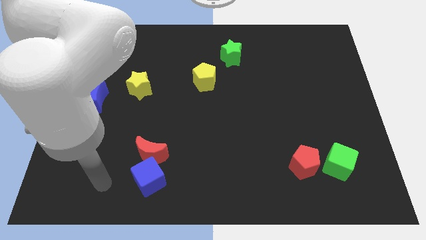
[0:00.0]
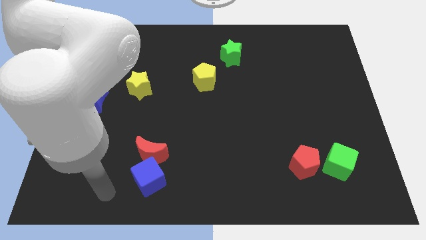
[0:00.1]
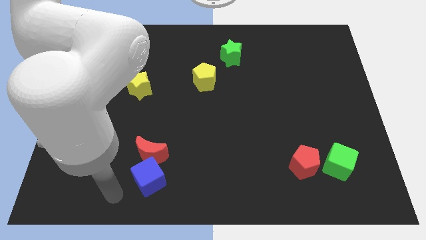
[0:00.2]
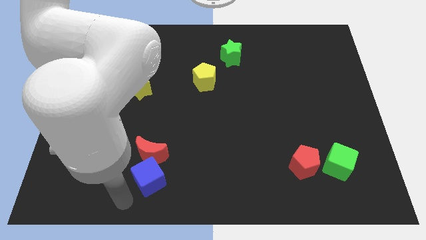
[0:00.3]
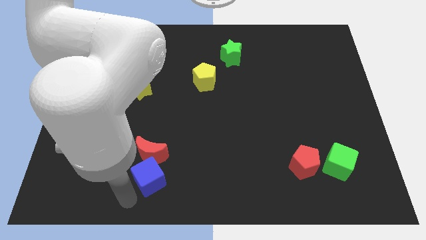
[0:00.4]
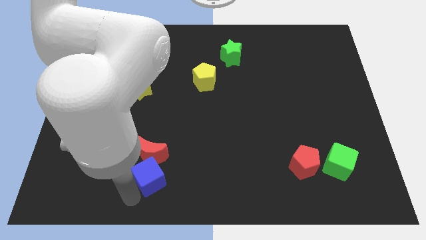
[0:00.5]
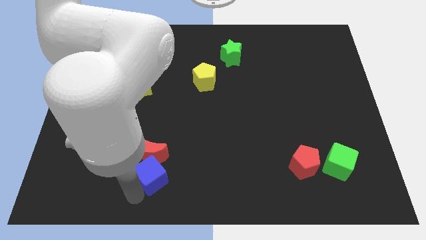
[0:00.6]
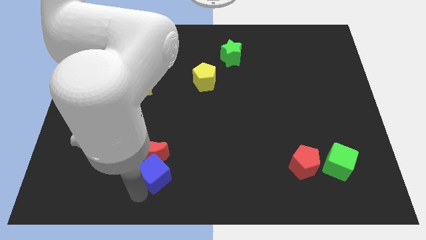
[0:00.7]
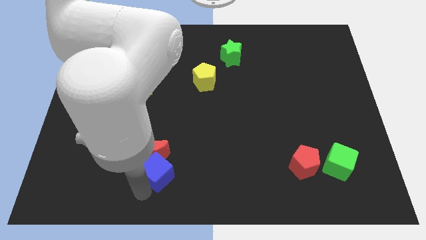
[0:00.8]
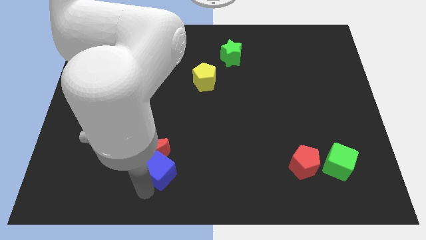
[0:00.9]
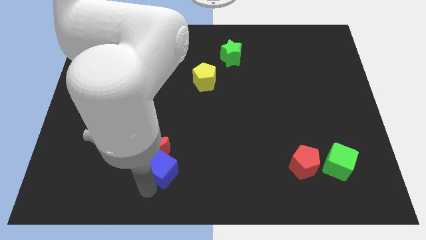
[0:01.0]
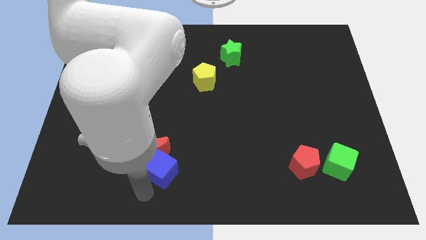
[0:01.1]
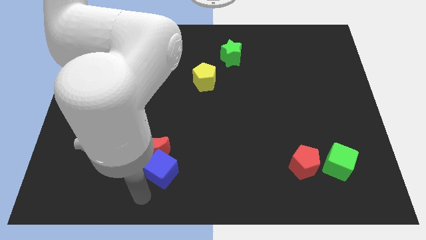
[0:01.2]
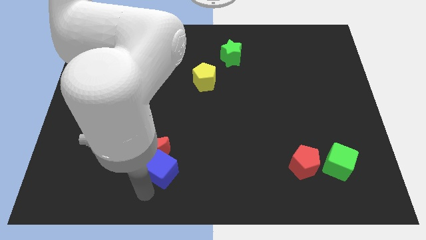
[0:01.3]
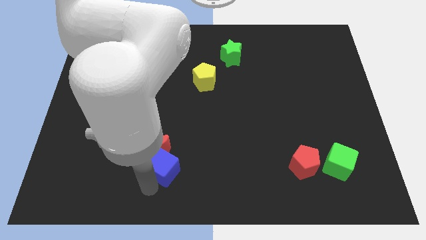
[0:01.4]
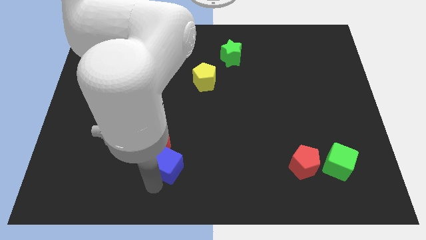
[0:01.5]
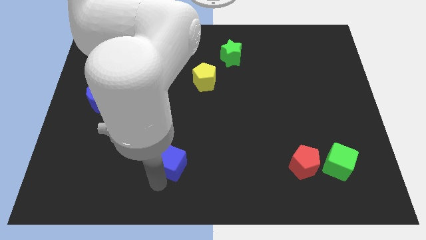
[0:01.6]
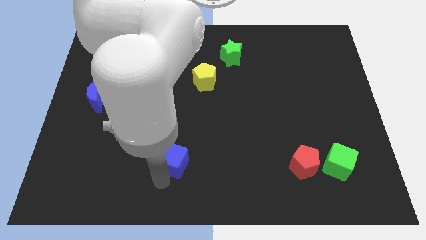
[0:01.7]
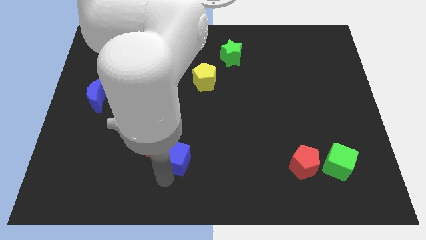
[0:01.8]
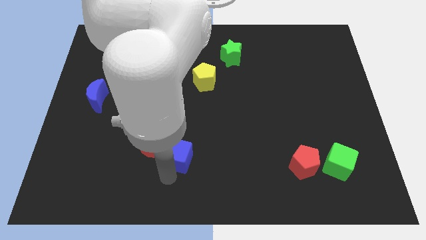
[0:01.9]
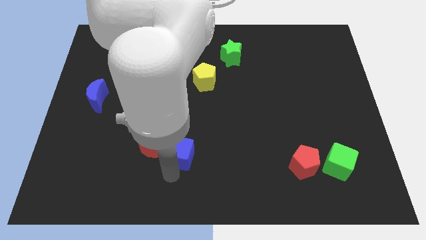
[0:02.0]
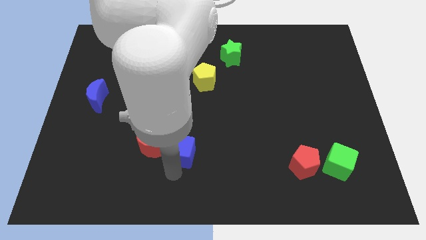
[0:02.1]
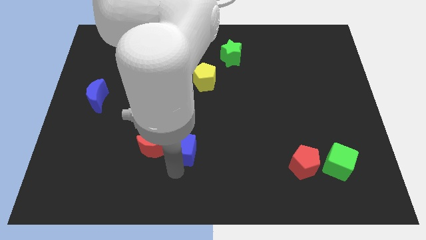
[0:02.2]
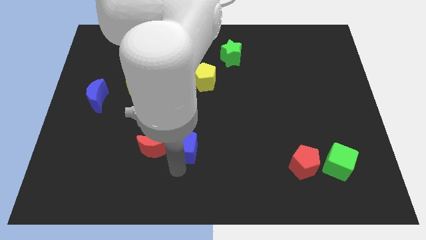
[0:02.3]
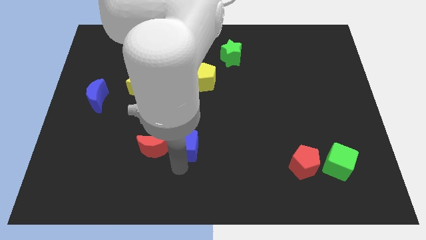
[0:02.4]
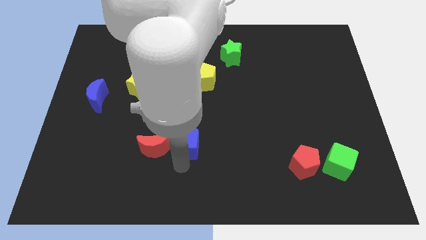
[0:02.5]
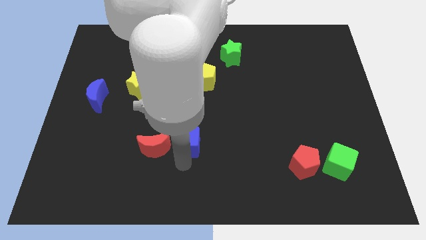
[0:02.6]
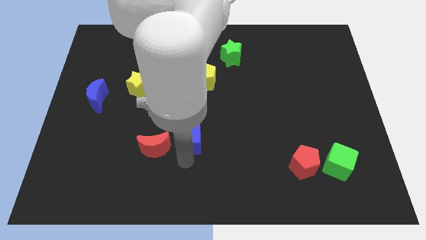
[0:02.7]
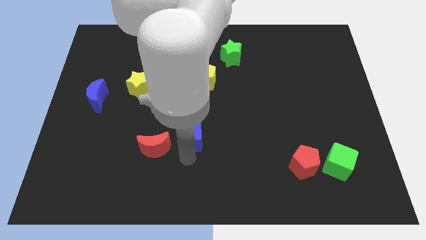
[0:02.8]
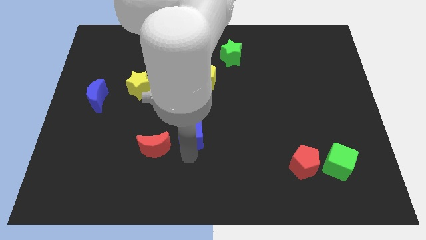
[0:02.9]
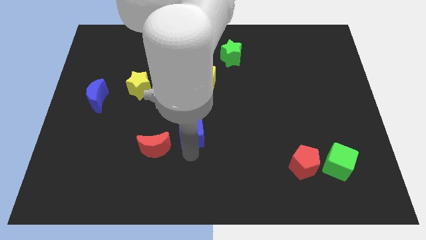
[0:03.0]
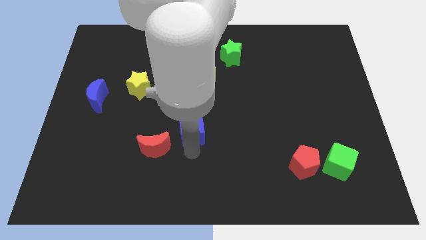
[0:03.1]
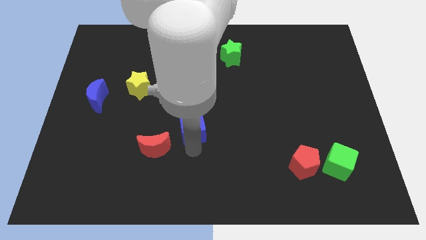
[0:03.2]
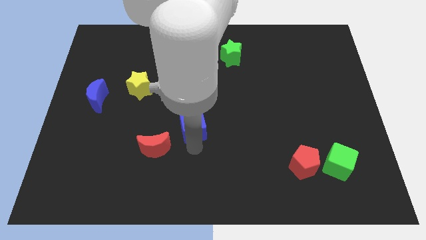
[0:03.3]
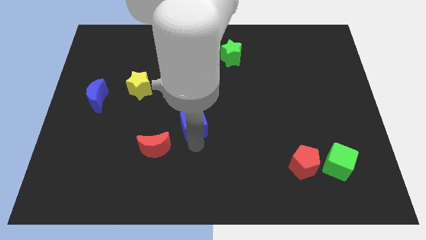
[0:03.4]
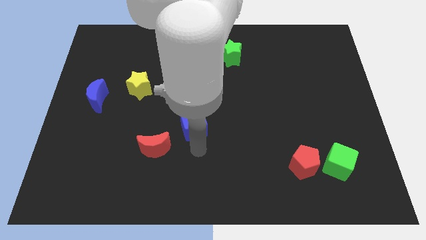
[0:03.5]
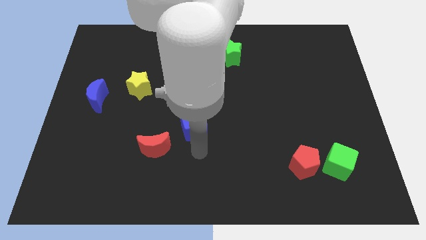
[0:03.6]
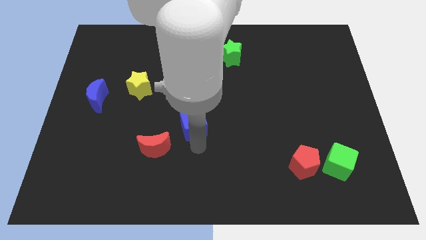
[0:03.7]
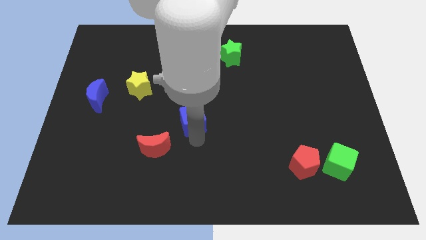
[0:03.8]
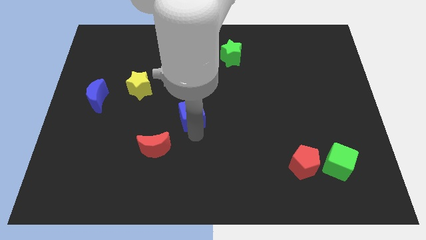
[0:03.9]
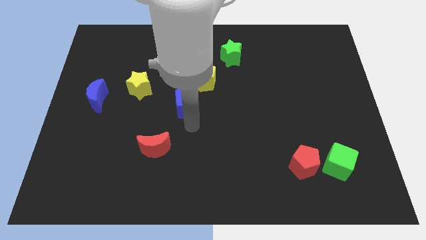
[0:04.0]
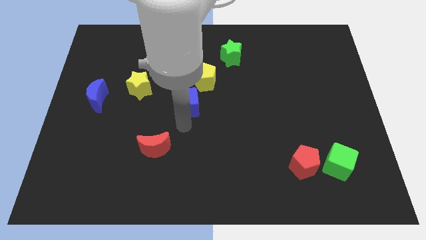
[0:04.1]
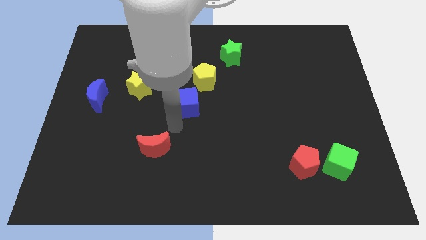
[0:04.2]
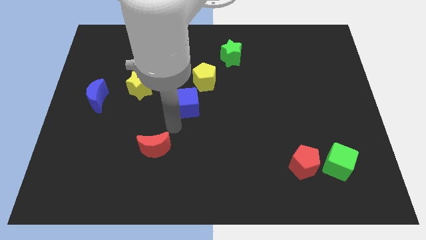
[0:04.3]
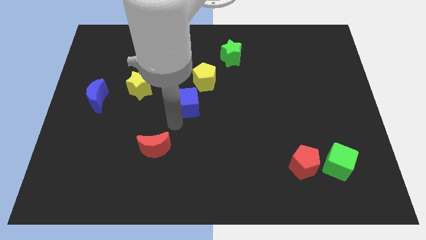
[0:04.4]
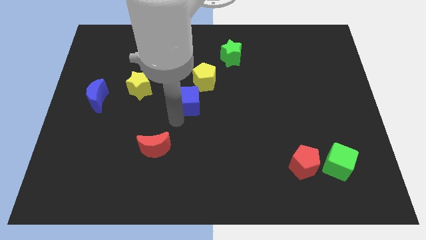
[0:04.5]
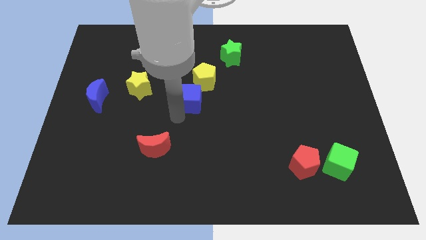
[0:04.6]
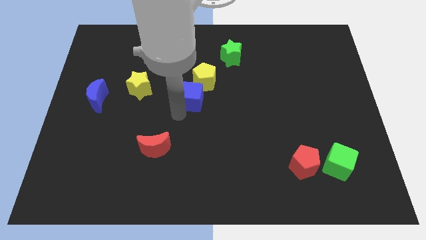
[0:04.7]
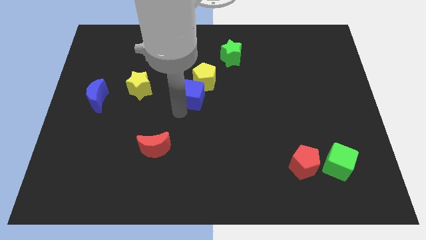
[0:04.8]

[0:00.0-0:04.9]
put the blue cube towards the yellow pentagon

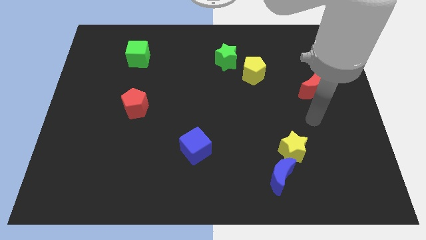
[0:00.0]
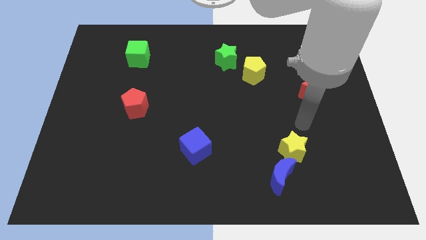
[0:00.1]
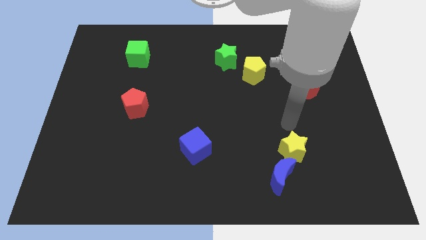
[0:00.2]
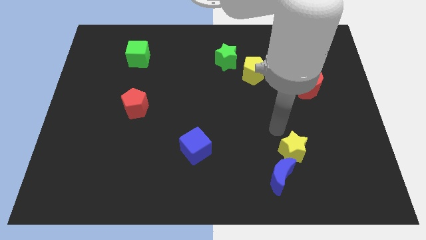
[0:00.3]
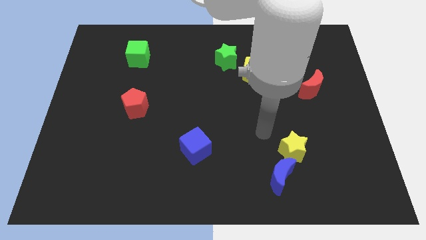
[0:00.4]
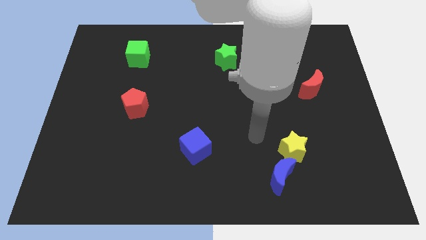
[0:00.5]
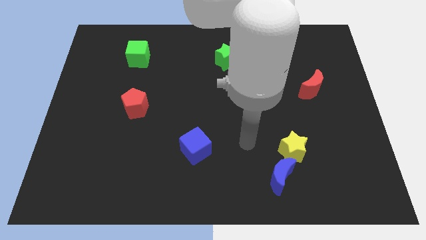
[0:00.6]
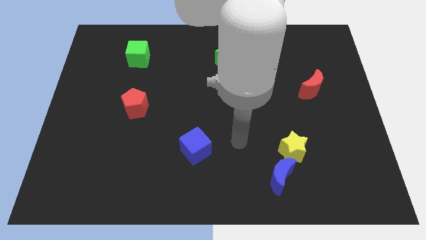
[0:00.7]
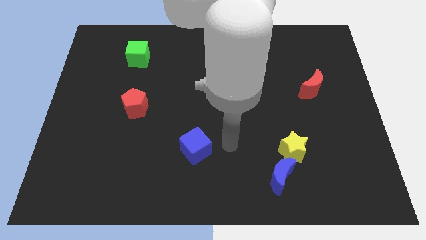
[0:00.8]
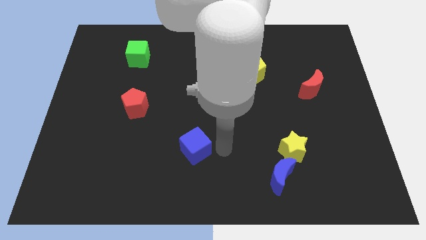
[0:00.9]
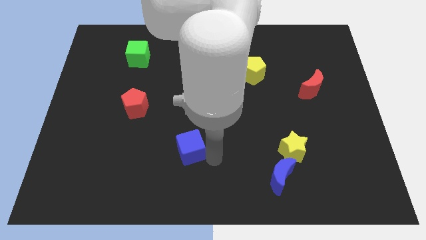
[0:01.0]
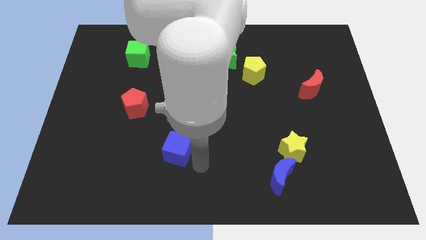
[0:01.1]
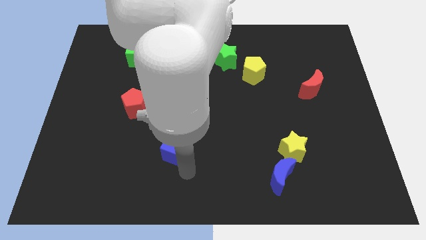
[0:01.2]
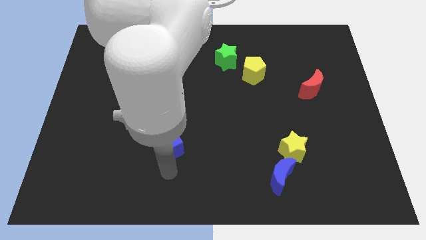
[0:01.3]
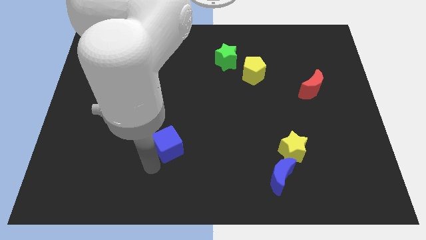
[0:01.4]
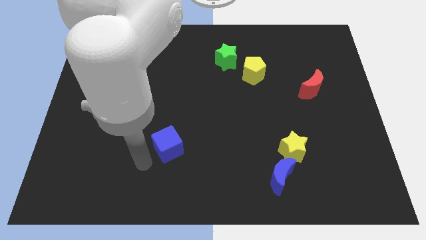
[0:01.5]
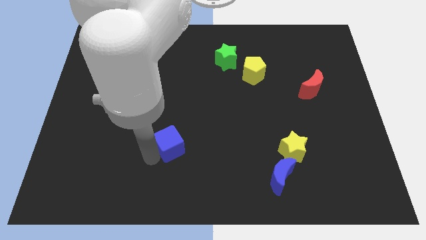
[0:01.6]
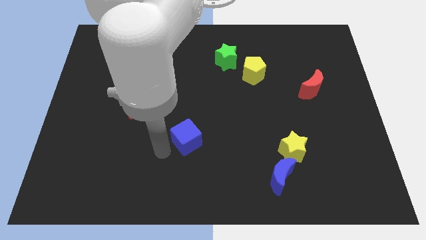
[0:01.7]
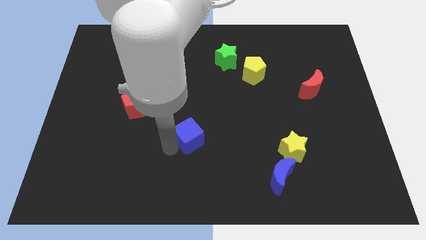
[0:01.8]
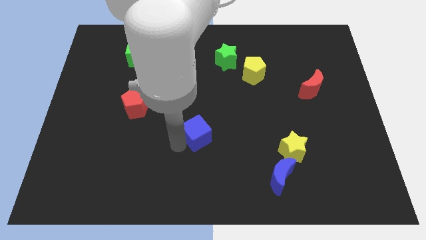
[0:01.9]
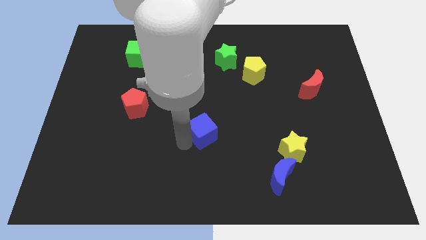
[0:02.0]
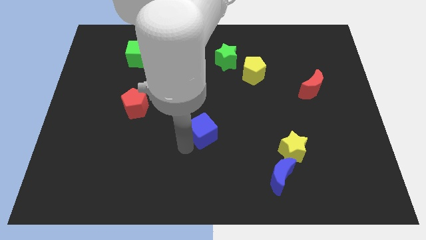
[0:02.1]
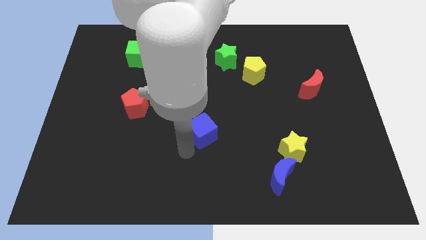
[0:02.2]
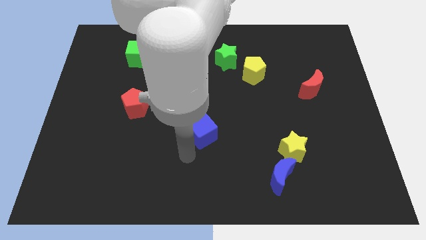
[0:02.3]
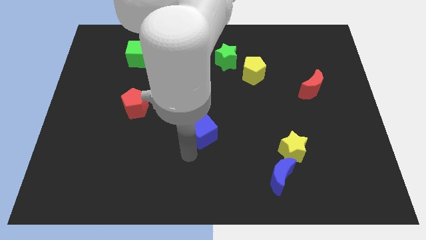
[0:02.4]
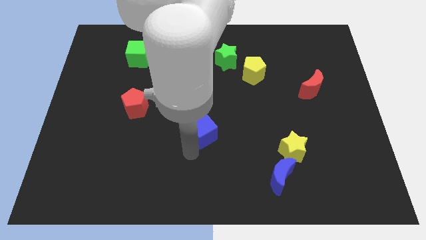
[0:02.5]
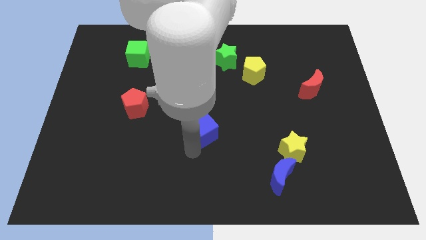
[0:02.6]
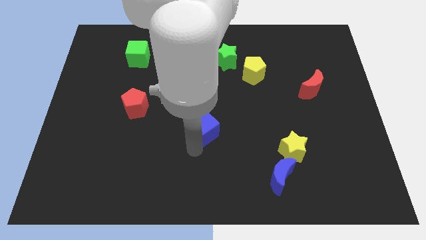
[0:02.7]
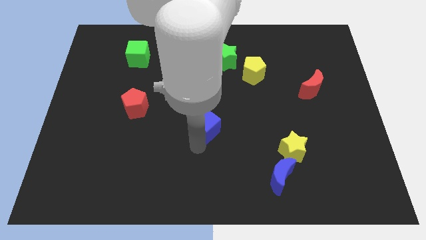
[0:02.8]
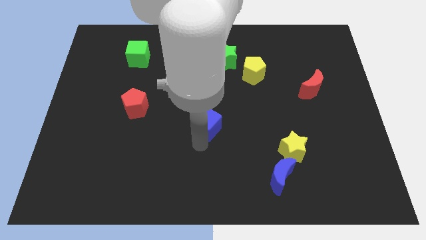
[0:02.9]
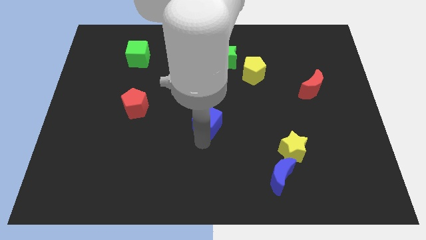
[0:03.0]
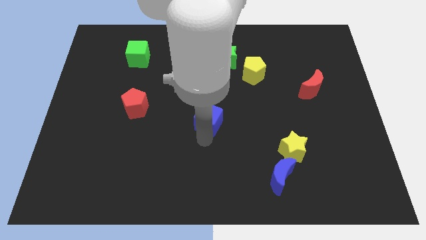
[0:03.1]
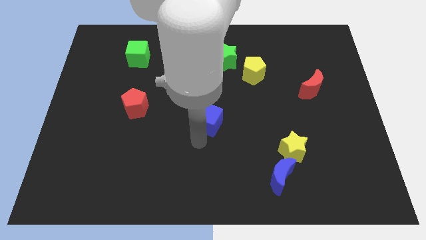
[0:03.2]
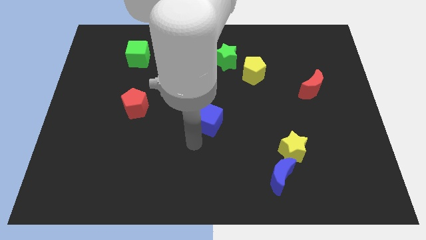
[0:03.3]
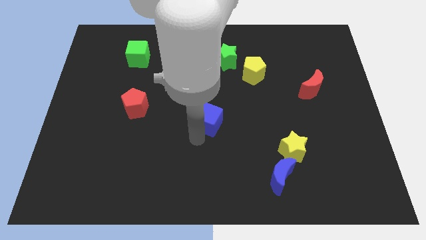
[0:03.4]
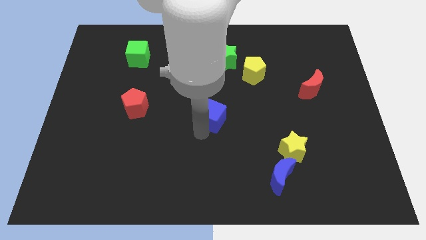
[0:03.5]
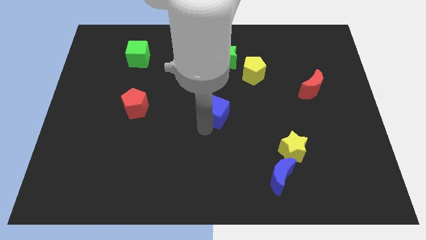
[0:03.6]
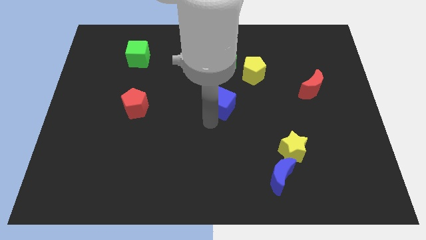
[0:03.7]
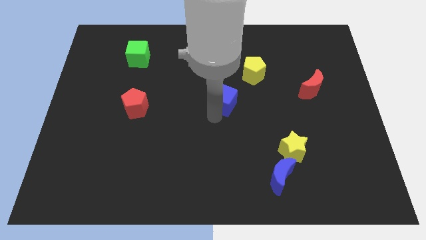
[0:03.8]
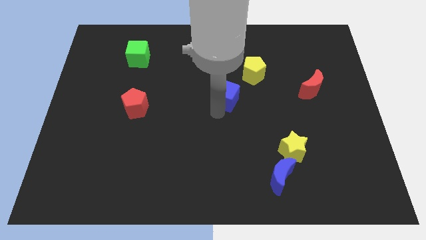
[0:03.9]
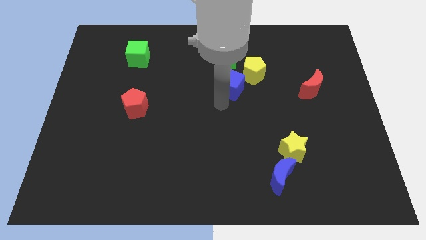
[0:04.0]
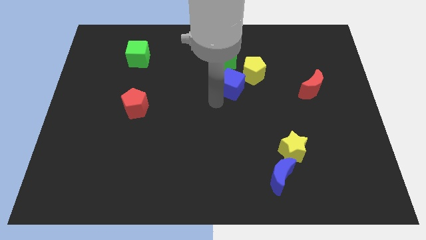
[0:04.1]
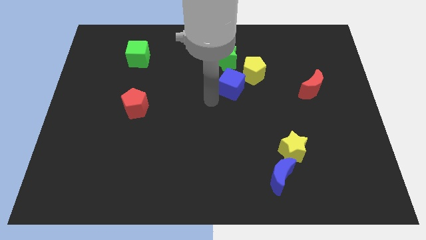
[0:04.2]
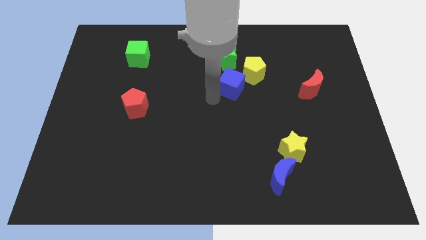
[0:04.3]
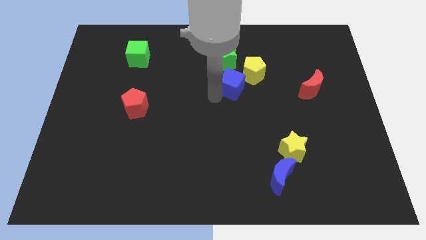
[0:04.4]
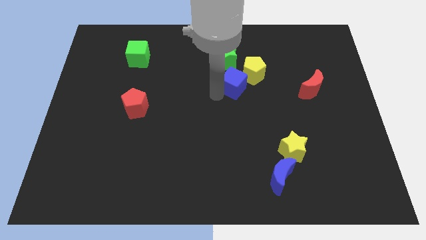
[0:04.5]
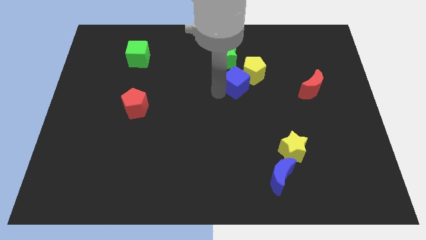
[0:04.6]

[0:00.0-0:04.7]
slide the blue cube next to the yellow pentagon
